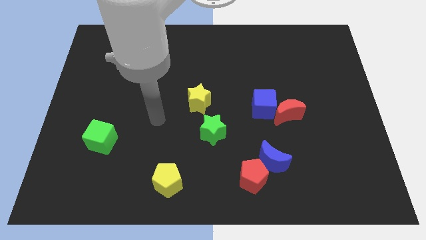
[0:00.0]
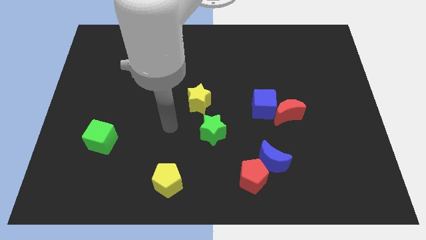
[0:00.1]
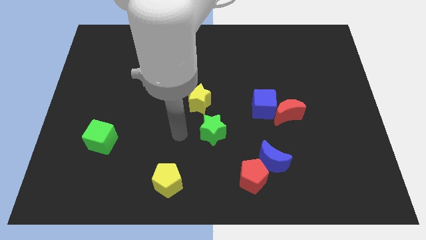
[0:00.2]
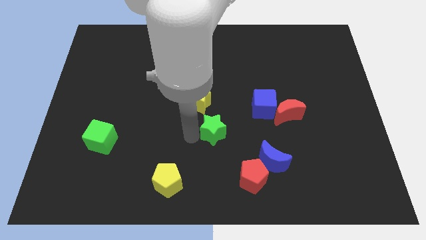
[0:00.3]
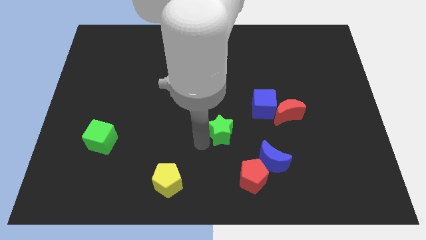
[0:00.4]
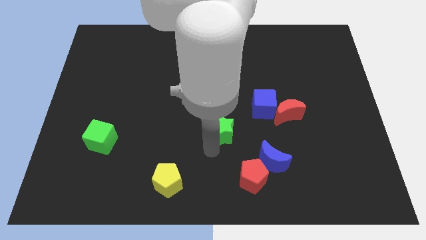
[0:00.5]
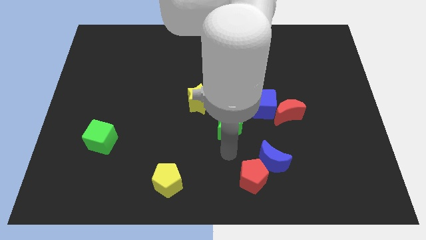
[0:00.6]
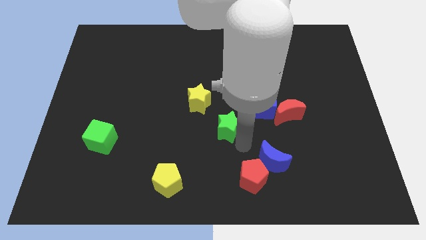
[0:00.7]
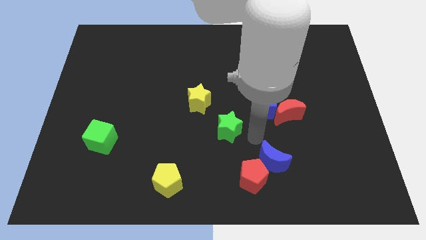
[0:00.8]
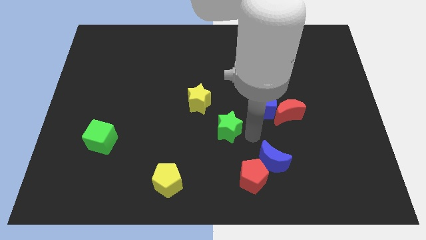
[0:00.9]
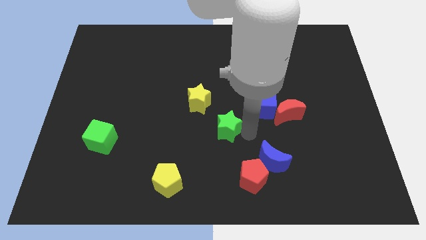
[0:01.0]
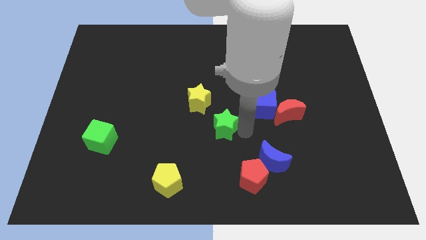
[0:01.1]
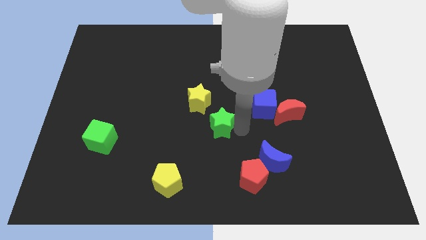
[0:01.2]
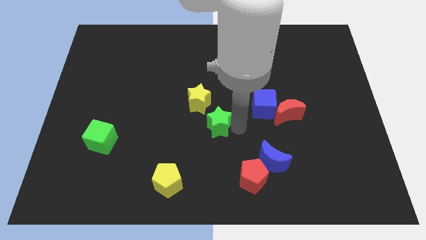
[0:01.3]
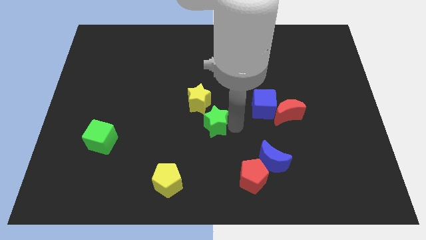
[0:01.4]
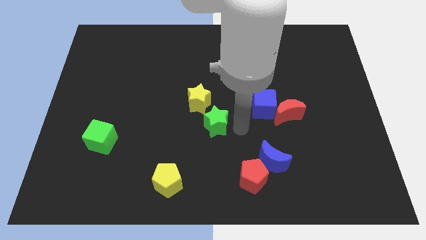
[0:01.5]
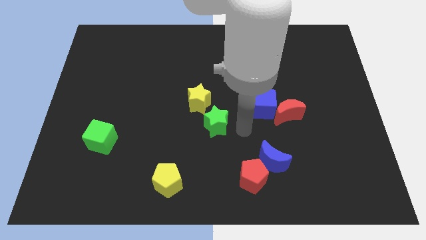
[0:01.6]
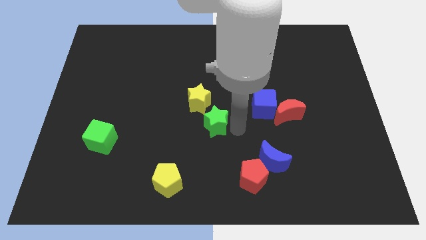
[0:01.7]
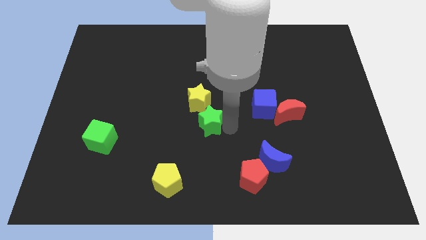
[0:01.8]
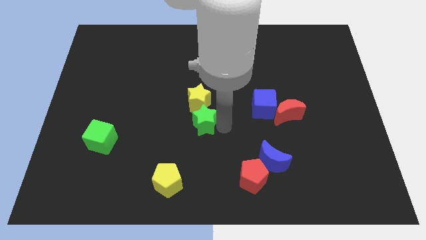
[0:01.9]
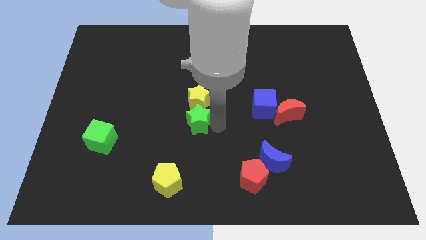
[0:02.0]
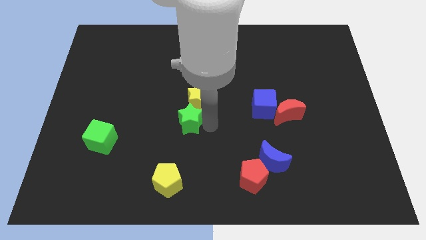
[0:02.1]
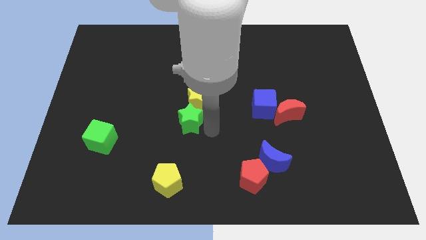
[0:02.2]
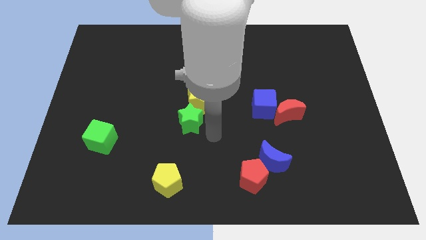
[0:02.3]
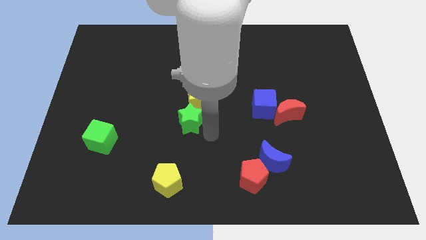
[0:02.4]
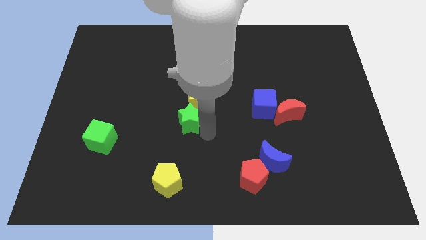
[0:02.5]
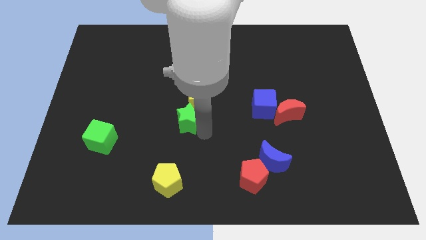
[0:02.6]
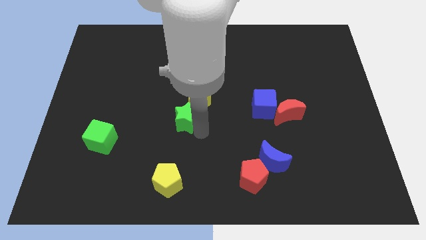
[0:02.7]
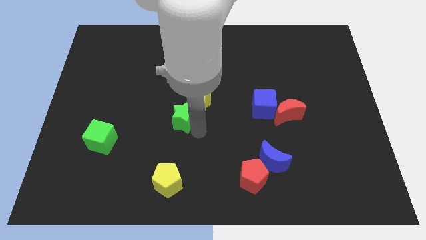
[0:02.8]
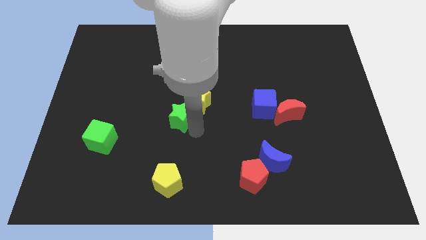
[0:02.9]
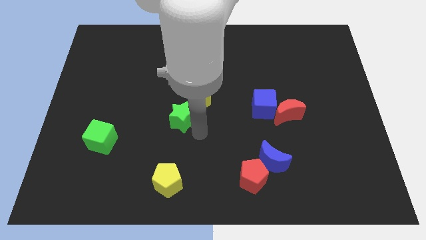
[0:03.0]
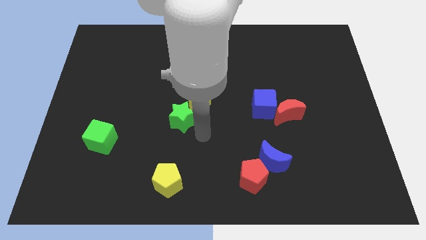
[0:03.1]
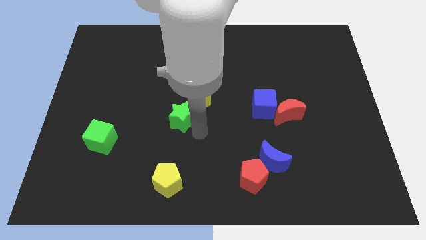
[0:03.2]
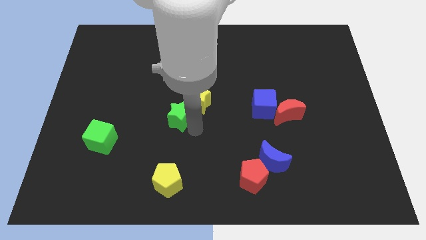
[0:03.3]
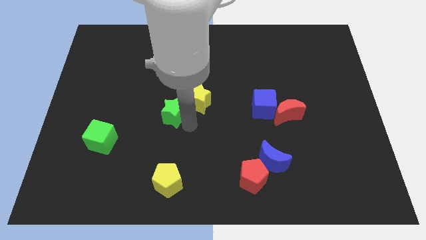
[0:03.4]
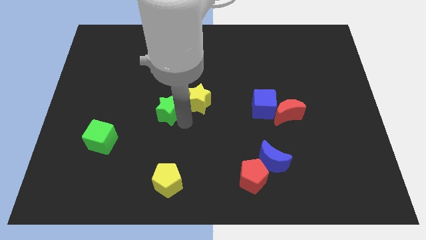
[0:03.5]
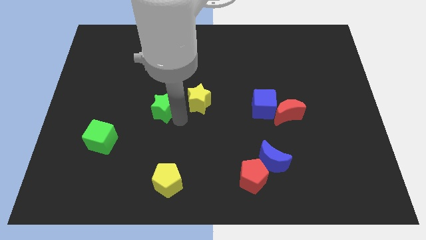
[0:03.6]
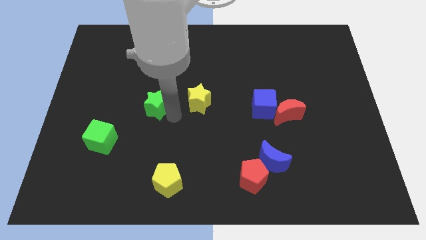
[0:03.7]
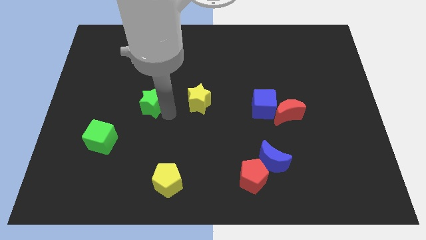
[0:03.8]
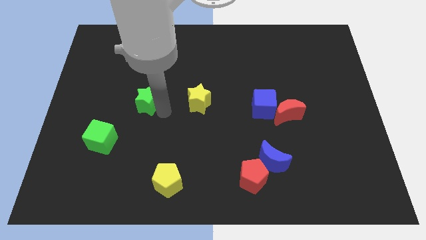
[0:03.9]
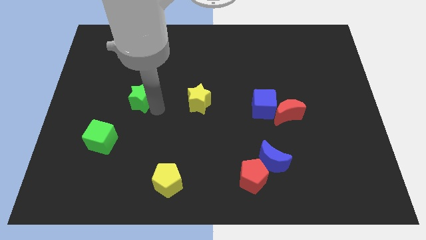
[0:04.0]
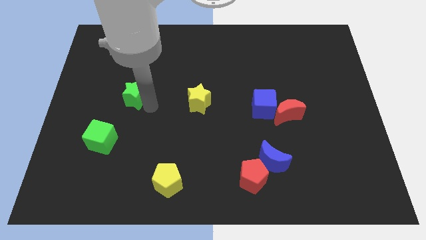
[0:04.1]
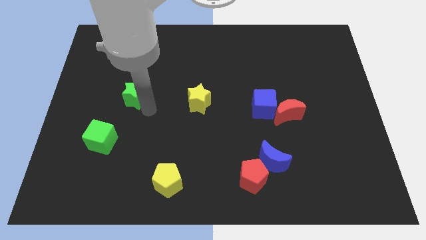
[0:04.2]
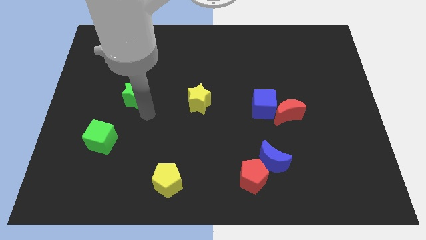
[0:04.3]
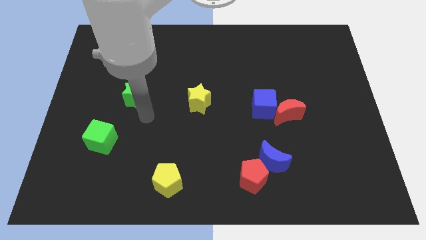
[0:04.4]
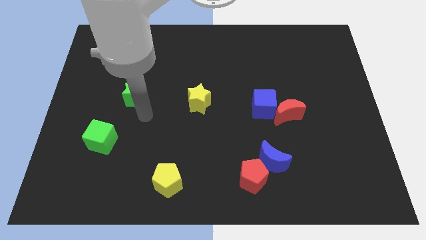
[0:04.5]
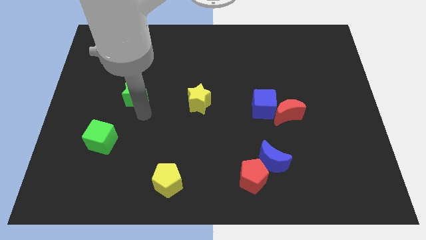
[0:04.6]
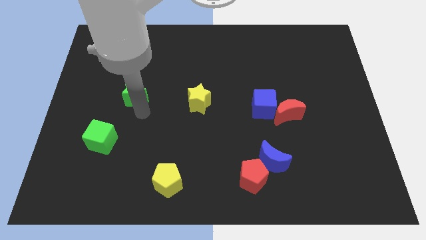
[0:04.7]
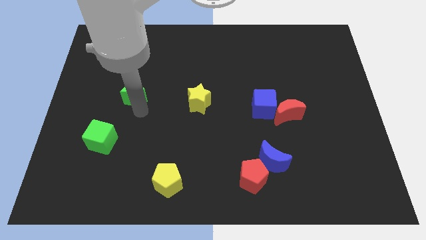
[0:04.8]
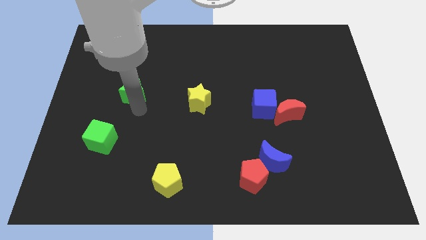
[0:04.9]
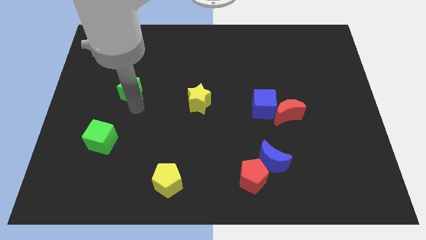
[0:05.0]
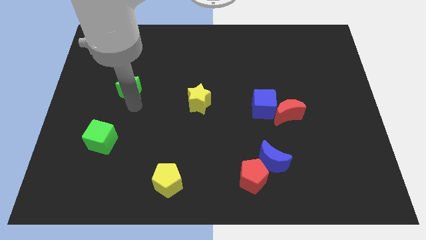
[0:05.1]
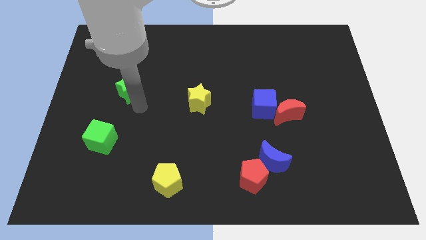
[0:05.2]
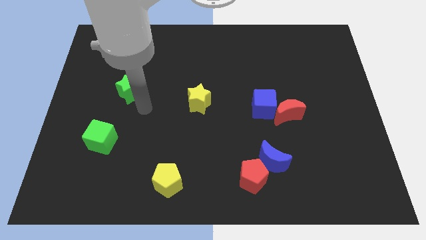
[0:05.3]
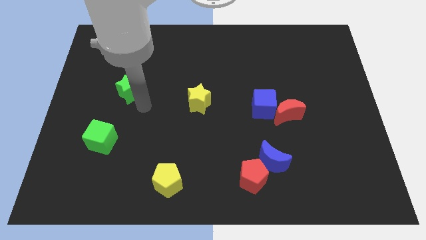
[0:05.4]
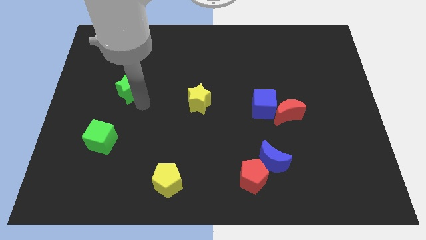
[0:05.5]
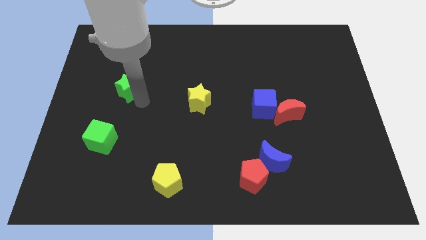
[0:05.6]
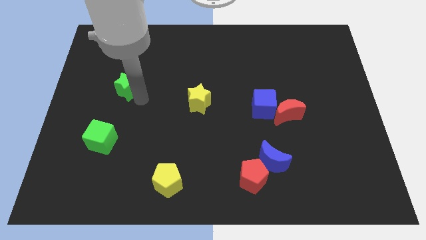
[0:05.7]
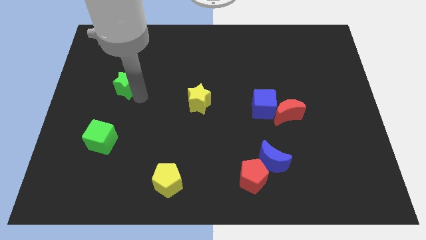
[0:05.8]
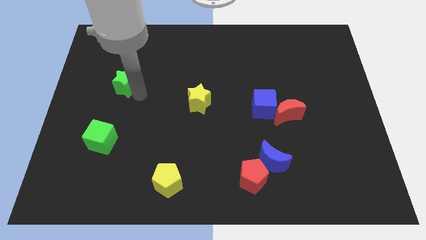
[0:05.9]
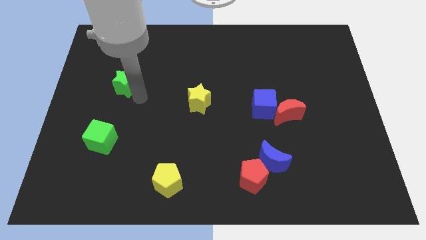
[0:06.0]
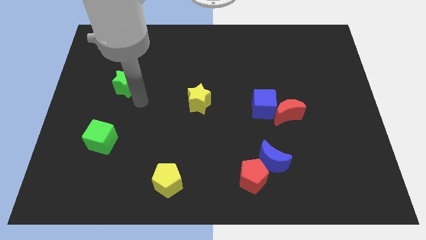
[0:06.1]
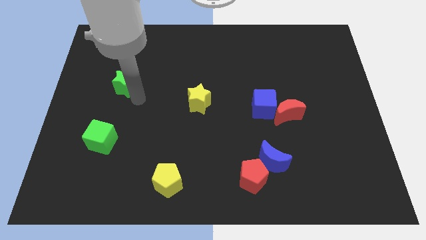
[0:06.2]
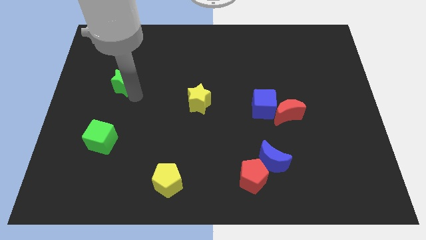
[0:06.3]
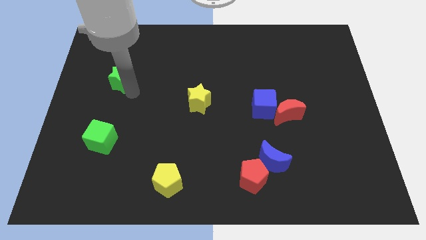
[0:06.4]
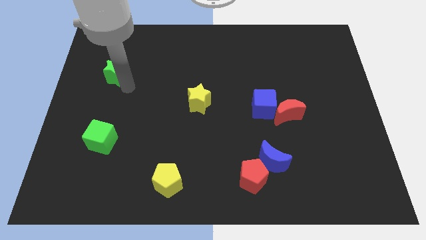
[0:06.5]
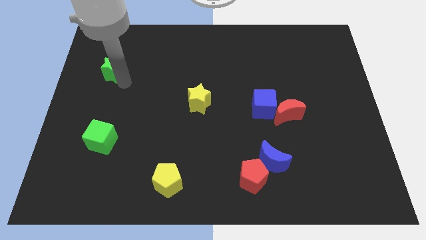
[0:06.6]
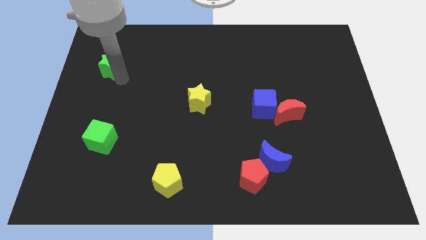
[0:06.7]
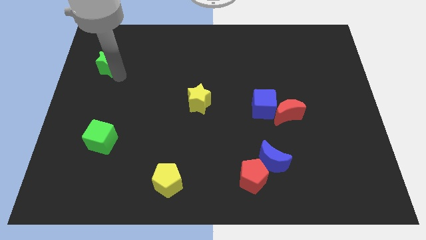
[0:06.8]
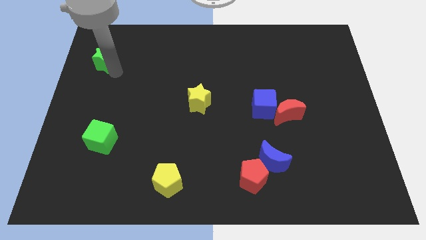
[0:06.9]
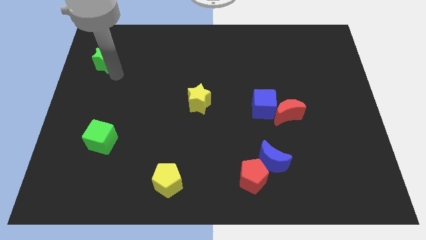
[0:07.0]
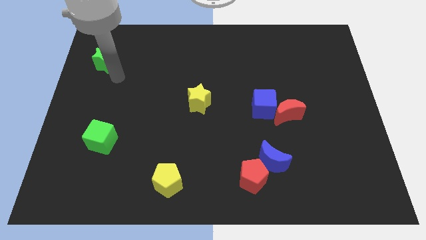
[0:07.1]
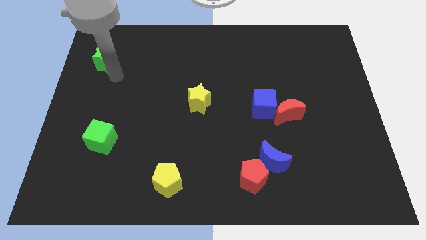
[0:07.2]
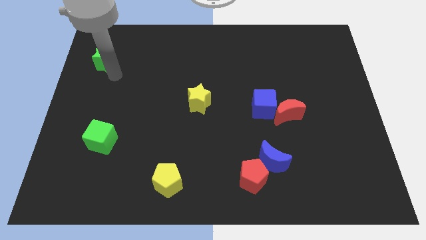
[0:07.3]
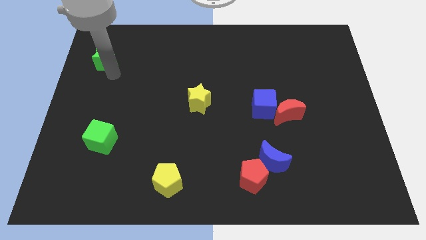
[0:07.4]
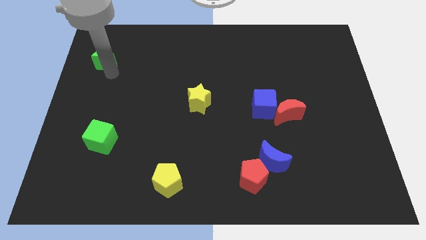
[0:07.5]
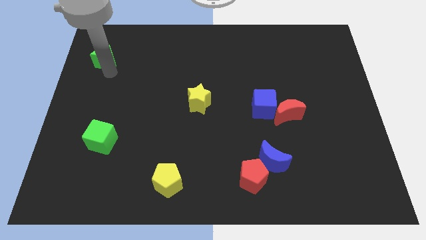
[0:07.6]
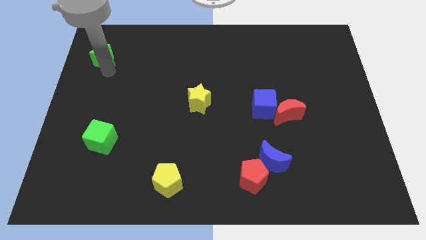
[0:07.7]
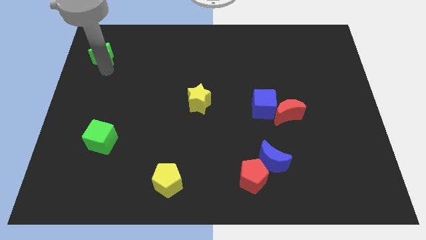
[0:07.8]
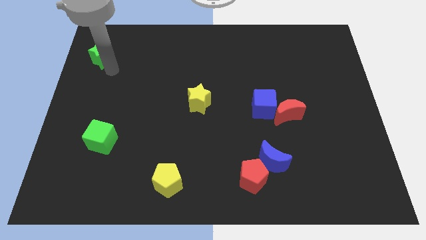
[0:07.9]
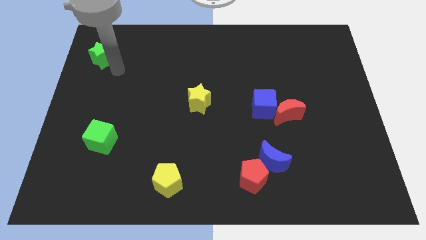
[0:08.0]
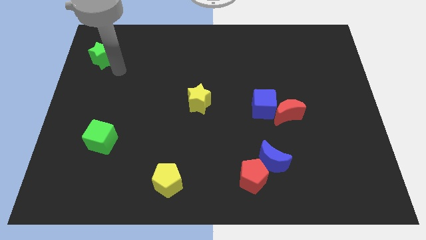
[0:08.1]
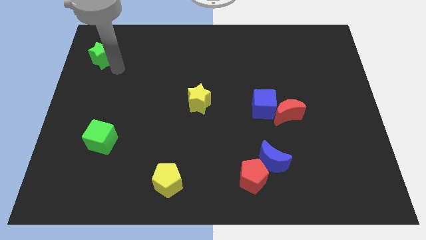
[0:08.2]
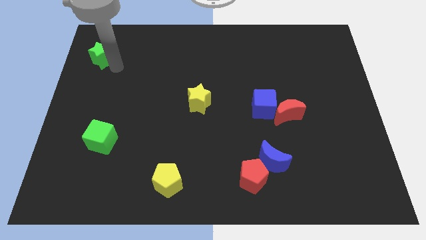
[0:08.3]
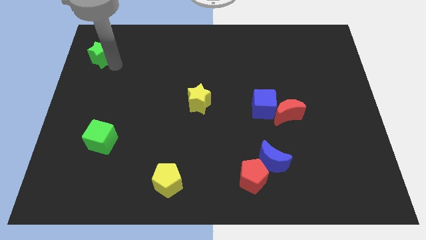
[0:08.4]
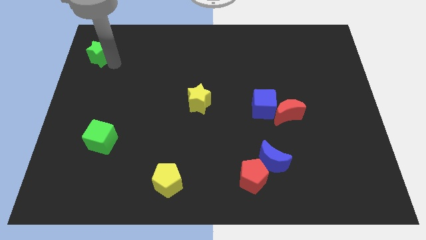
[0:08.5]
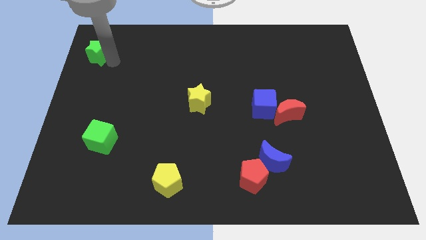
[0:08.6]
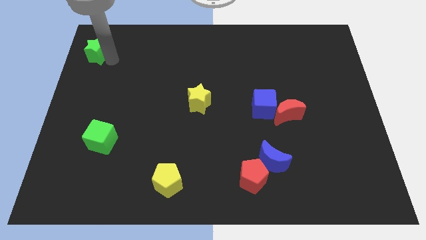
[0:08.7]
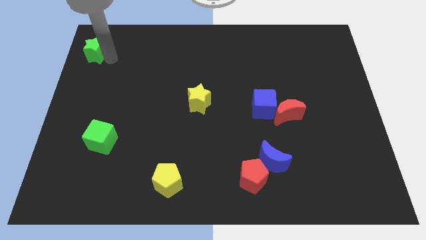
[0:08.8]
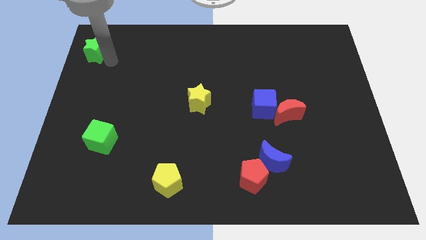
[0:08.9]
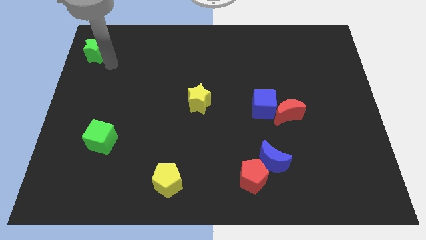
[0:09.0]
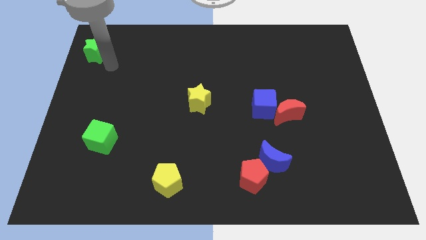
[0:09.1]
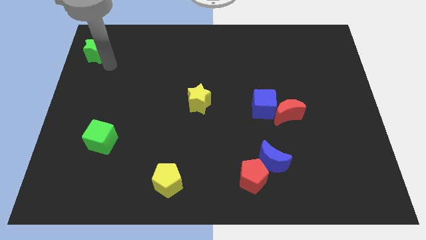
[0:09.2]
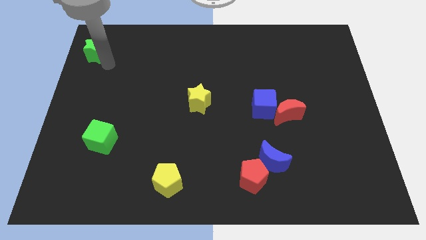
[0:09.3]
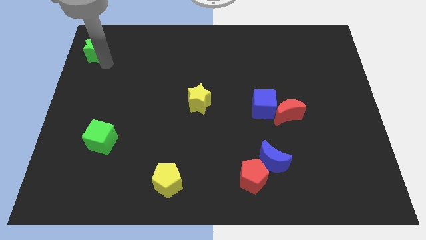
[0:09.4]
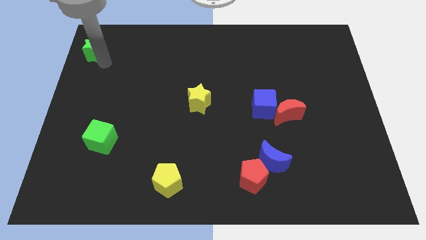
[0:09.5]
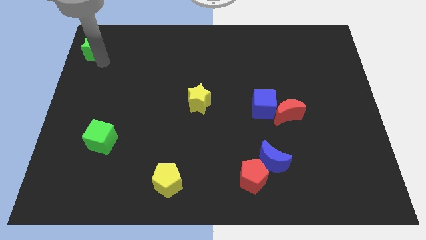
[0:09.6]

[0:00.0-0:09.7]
put the green star to the upper left corner
